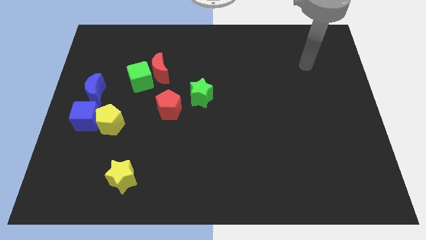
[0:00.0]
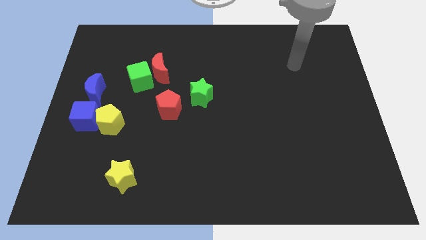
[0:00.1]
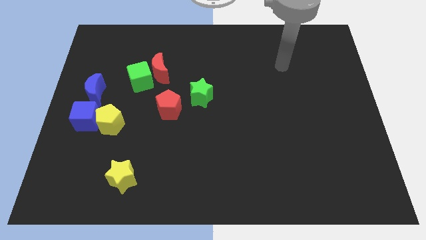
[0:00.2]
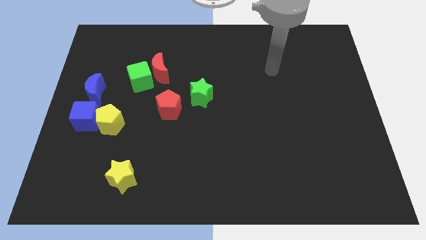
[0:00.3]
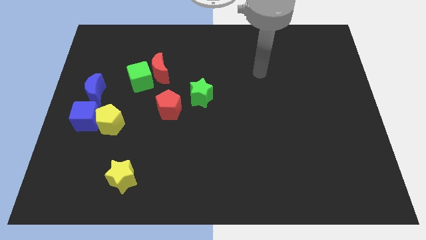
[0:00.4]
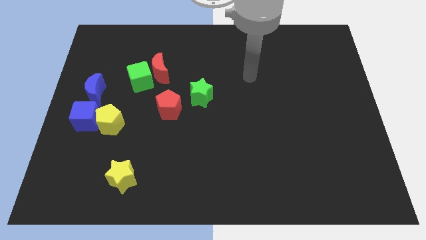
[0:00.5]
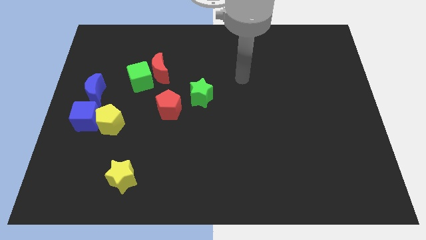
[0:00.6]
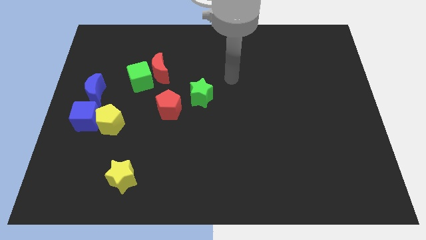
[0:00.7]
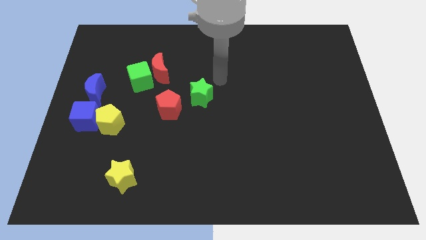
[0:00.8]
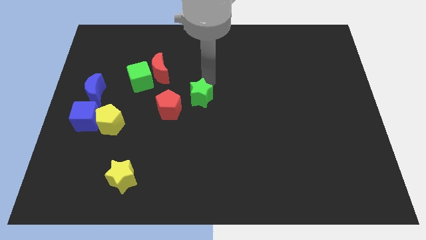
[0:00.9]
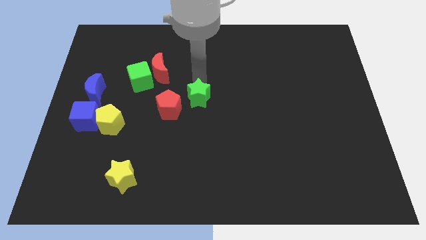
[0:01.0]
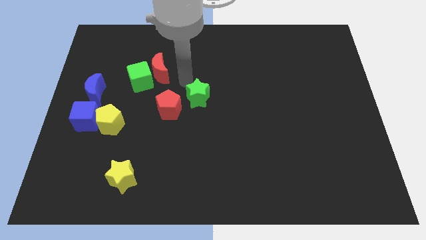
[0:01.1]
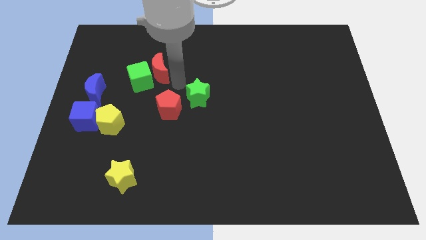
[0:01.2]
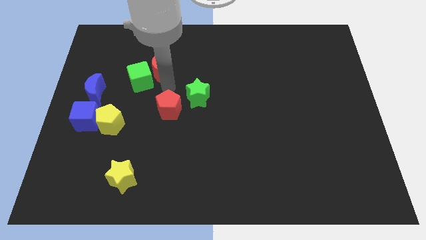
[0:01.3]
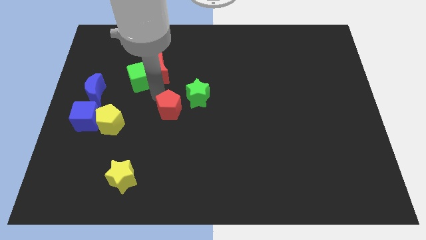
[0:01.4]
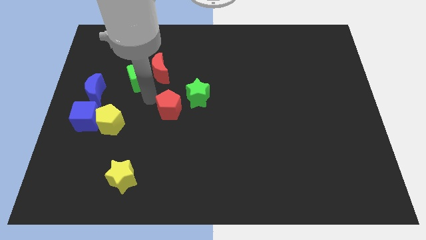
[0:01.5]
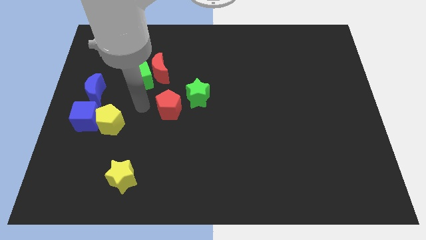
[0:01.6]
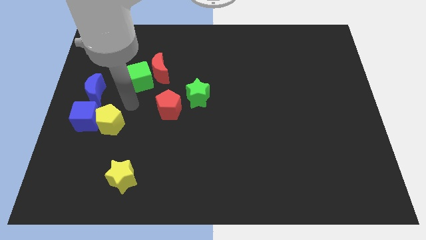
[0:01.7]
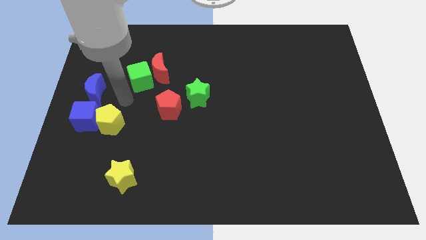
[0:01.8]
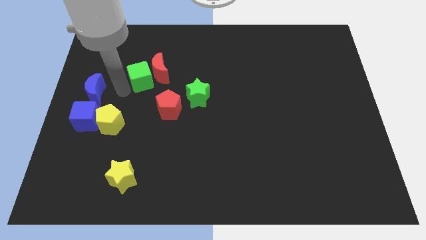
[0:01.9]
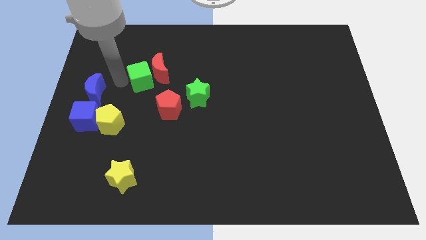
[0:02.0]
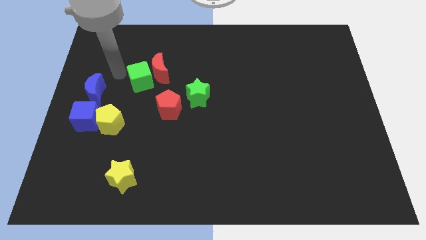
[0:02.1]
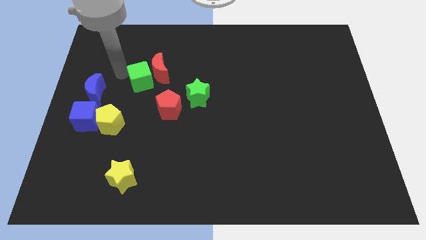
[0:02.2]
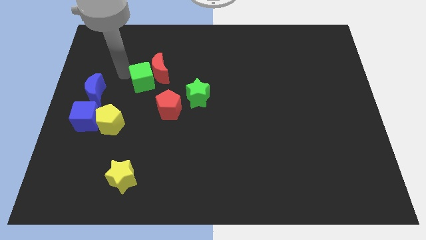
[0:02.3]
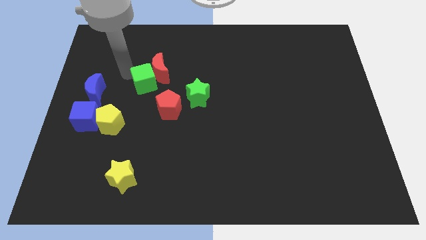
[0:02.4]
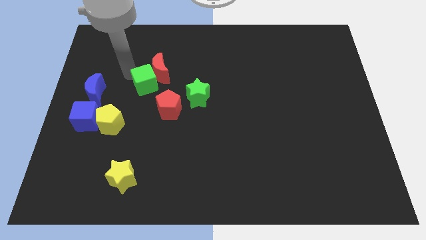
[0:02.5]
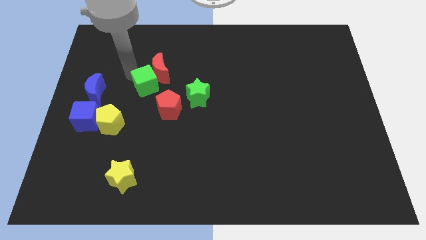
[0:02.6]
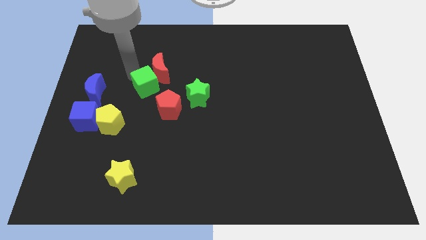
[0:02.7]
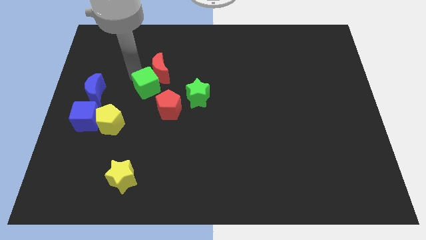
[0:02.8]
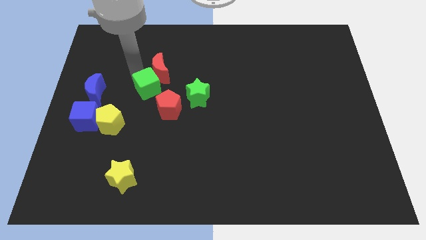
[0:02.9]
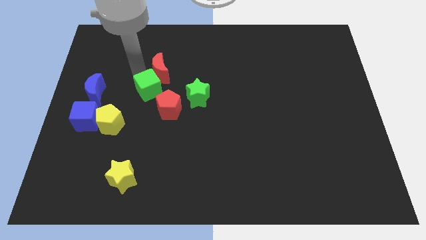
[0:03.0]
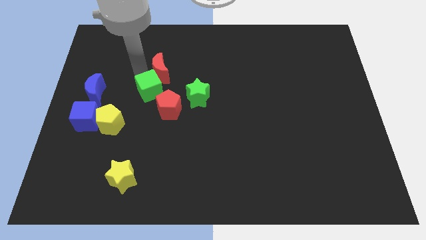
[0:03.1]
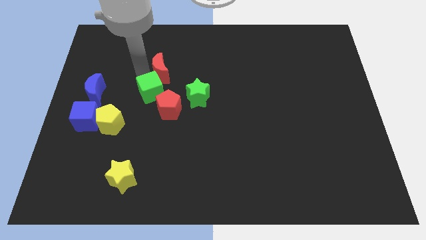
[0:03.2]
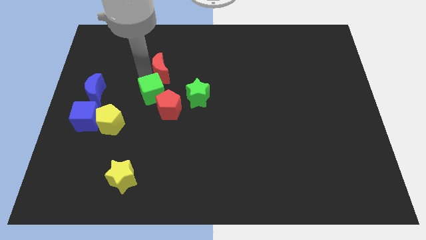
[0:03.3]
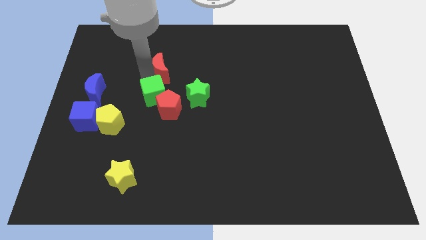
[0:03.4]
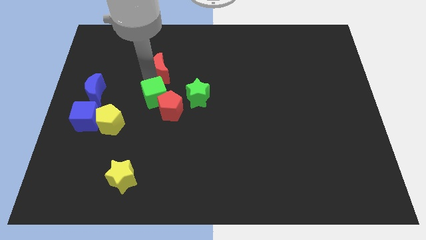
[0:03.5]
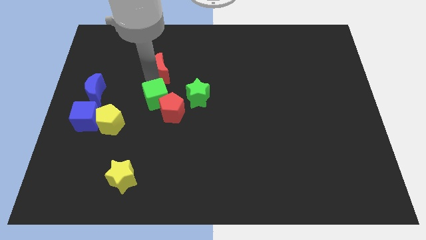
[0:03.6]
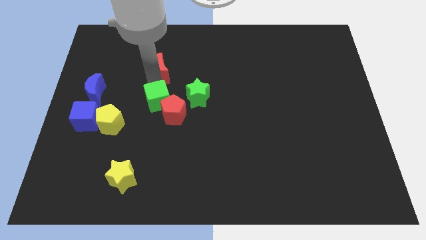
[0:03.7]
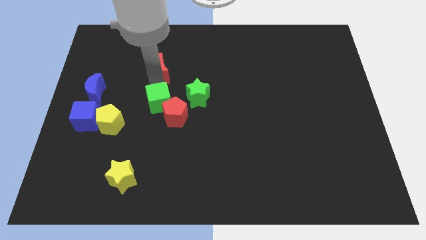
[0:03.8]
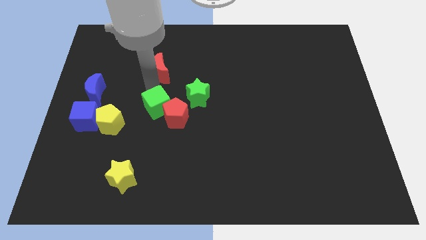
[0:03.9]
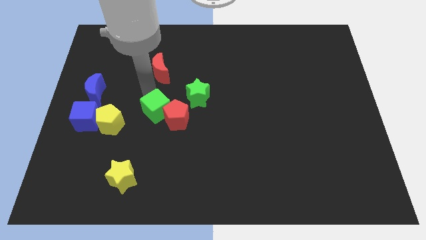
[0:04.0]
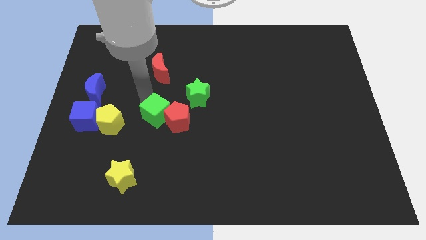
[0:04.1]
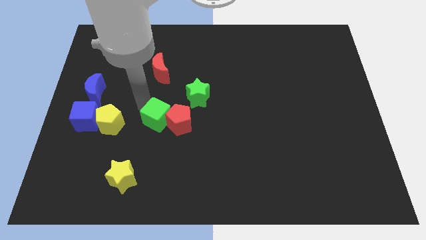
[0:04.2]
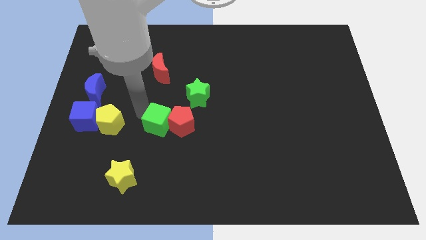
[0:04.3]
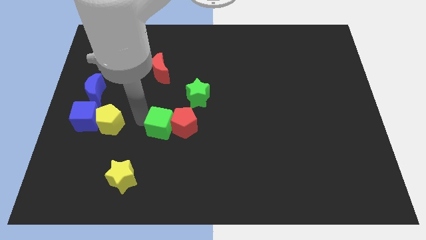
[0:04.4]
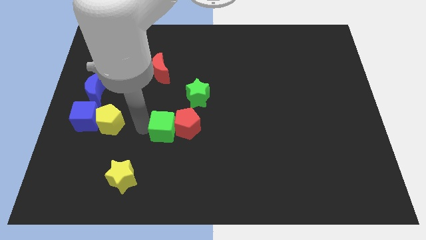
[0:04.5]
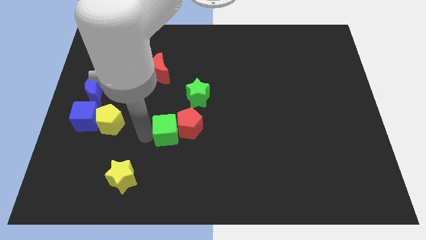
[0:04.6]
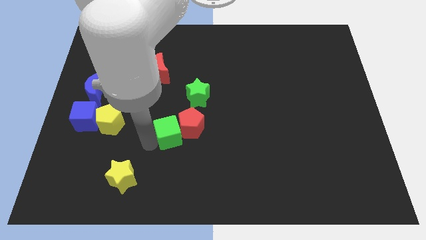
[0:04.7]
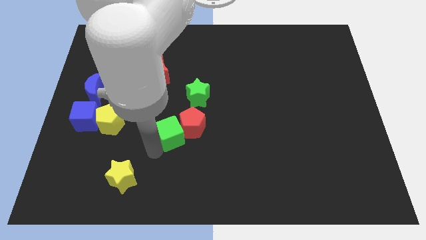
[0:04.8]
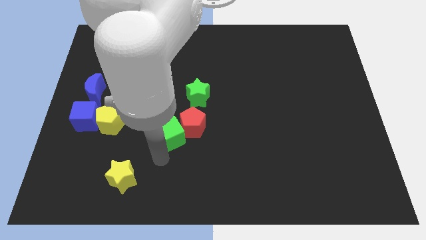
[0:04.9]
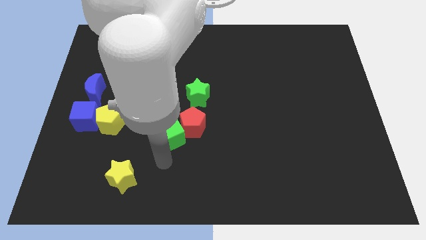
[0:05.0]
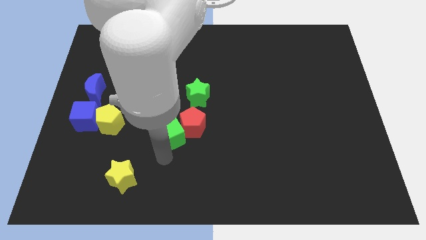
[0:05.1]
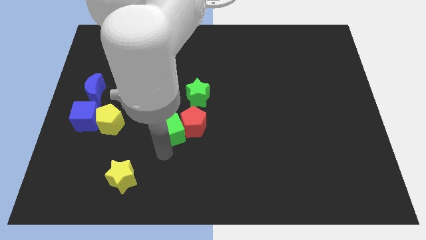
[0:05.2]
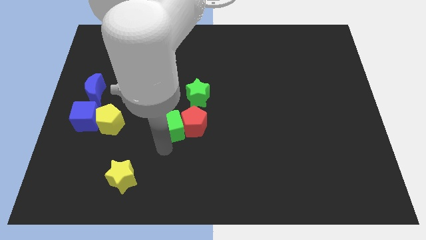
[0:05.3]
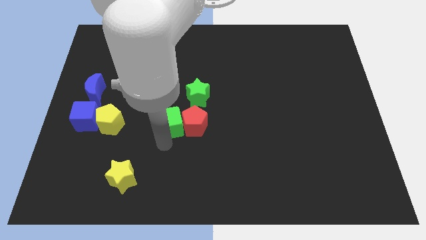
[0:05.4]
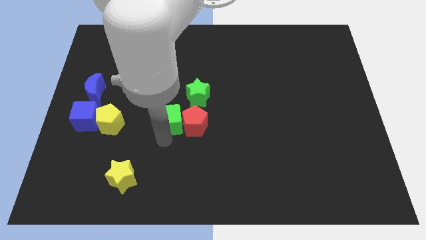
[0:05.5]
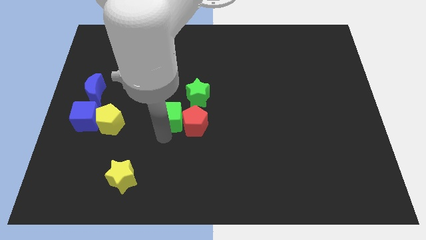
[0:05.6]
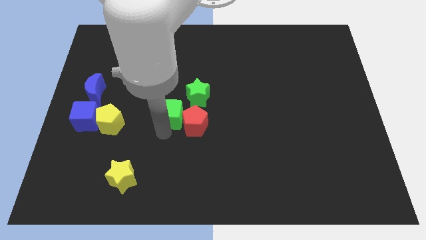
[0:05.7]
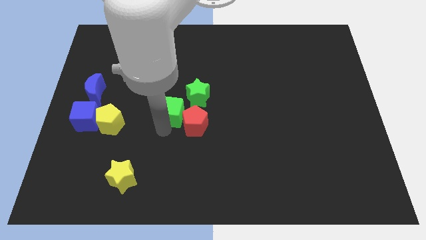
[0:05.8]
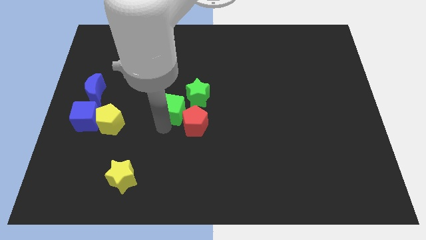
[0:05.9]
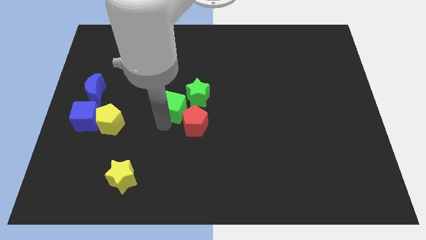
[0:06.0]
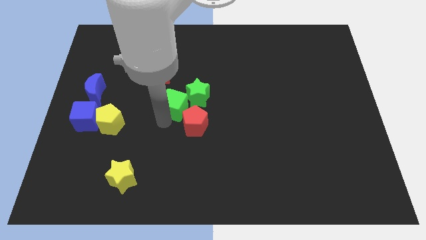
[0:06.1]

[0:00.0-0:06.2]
slide the green cube close to the green star
